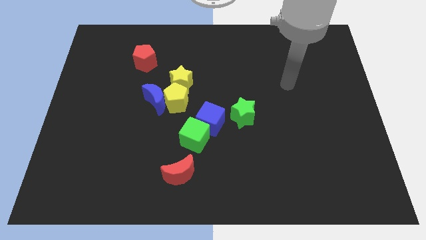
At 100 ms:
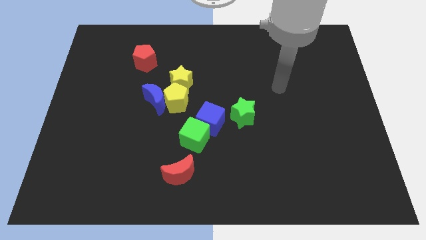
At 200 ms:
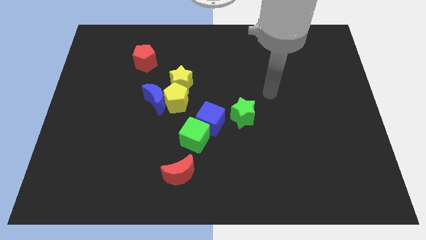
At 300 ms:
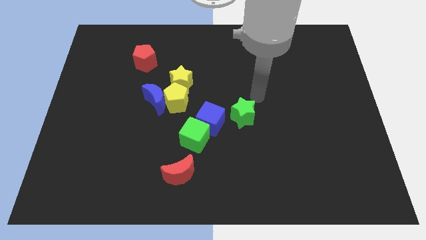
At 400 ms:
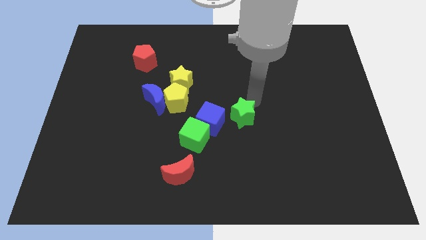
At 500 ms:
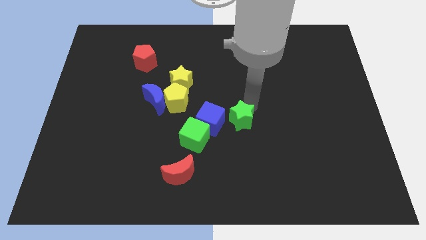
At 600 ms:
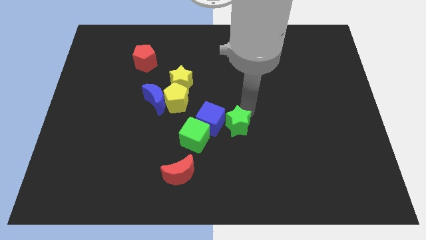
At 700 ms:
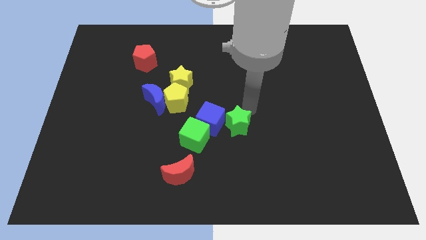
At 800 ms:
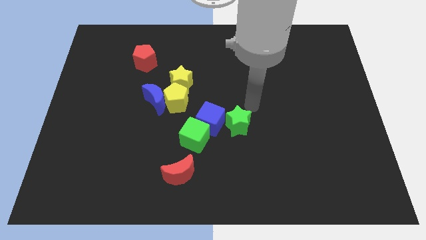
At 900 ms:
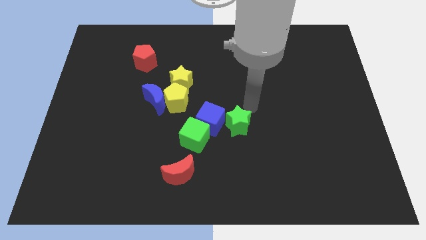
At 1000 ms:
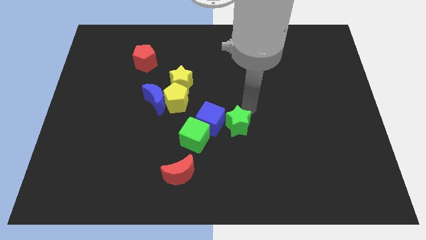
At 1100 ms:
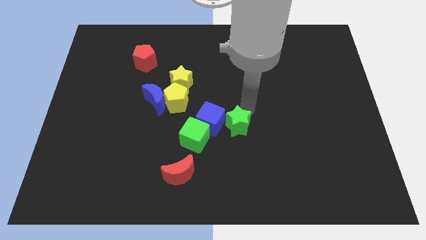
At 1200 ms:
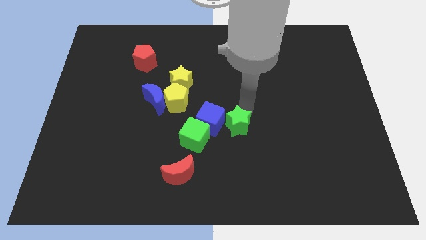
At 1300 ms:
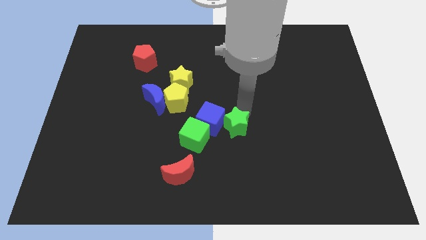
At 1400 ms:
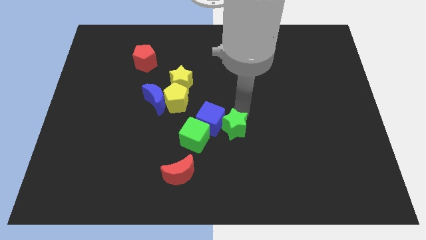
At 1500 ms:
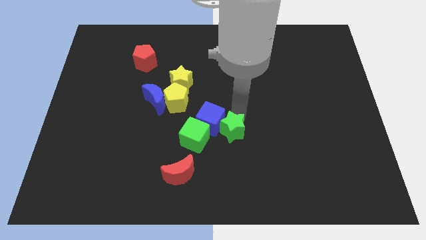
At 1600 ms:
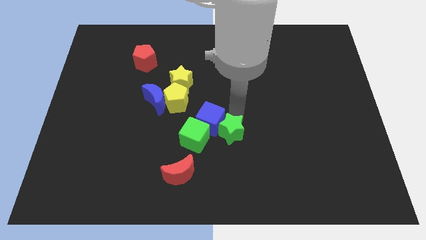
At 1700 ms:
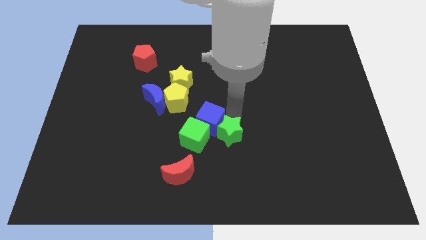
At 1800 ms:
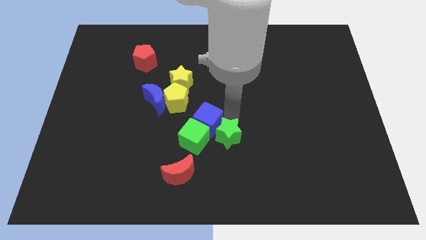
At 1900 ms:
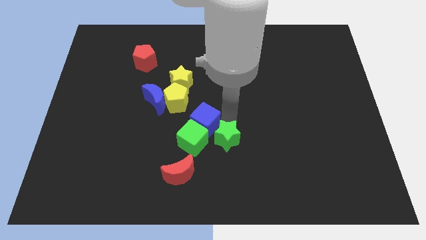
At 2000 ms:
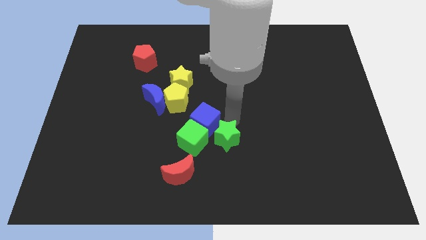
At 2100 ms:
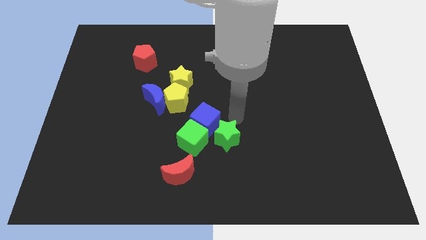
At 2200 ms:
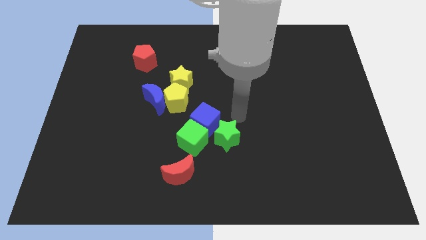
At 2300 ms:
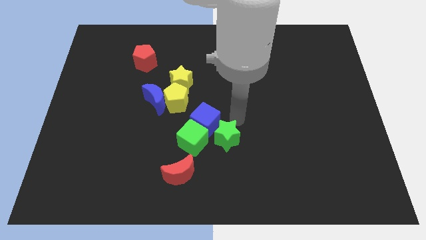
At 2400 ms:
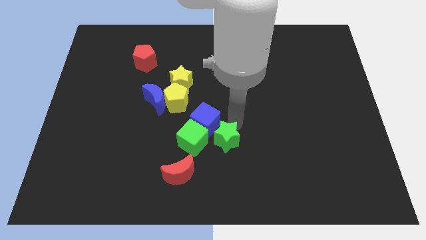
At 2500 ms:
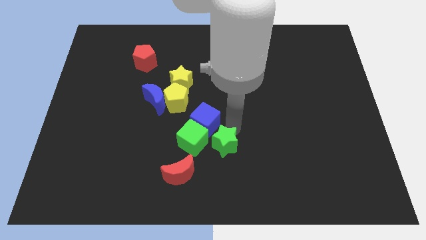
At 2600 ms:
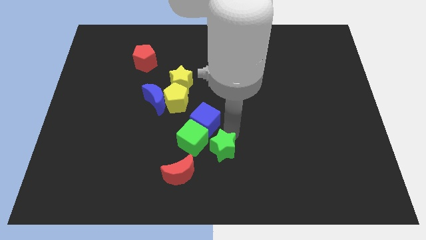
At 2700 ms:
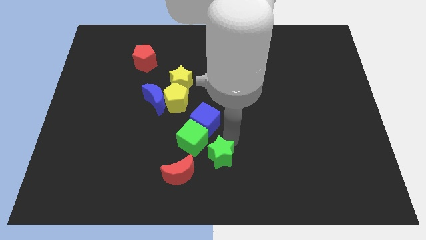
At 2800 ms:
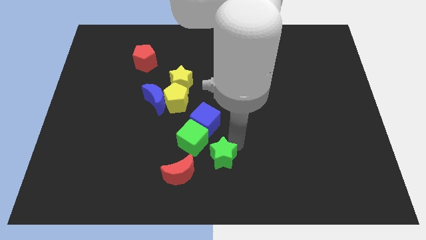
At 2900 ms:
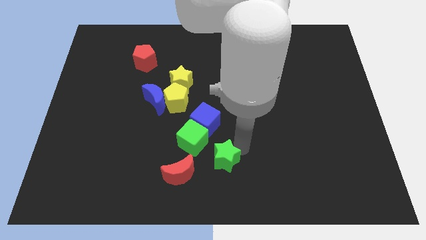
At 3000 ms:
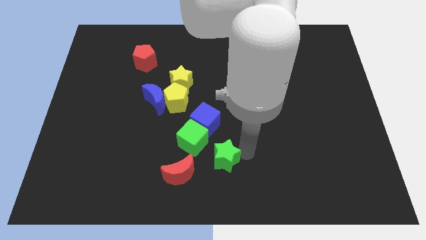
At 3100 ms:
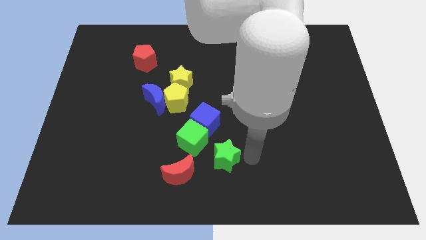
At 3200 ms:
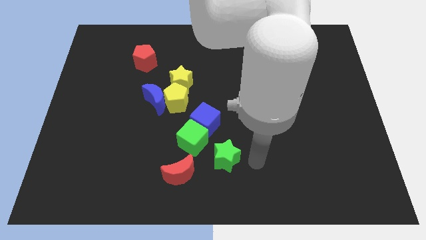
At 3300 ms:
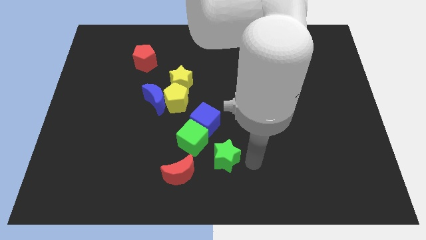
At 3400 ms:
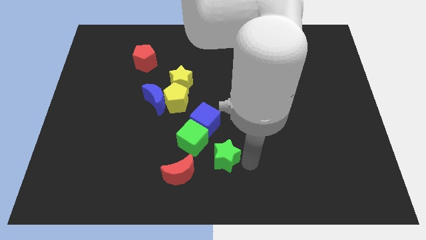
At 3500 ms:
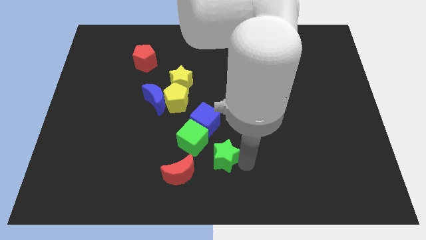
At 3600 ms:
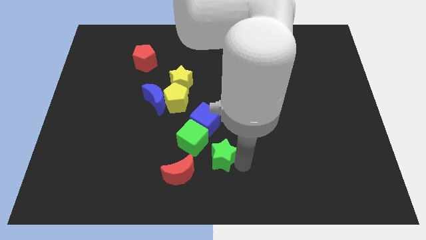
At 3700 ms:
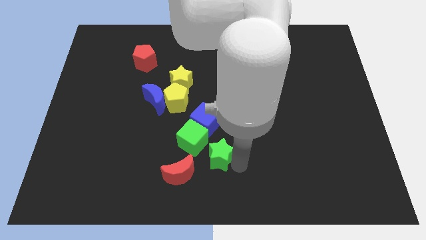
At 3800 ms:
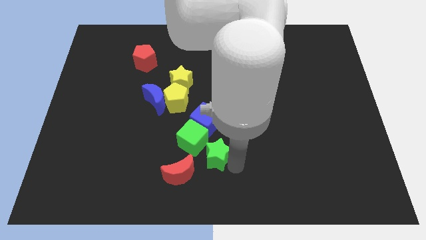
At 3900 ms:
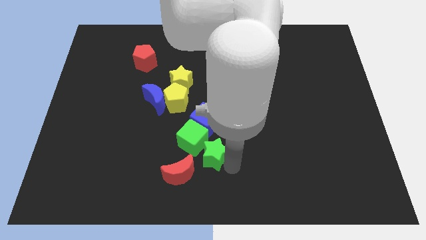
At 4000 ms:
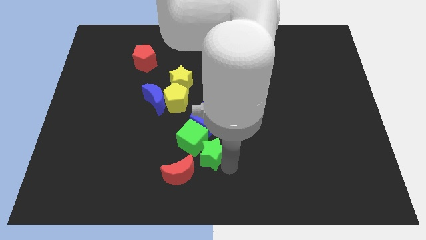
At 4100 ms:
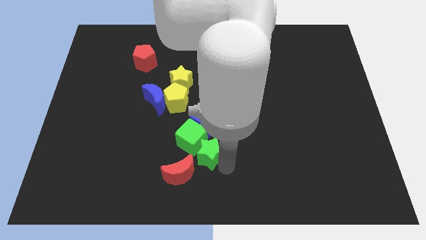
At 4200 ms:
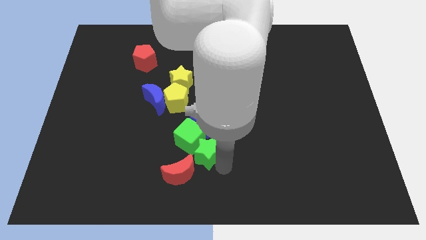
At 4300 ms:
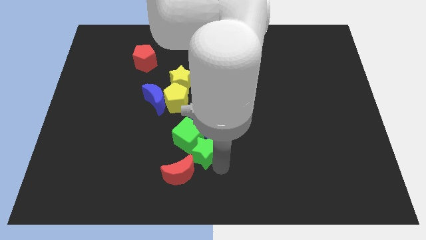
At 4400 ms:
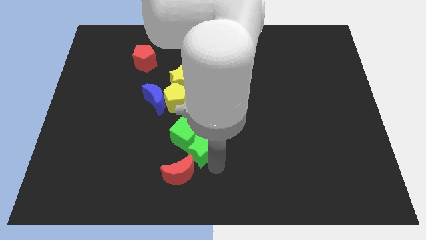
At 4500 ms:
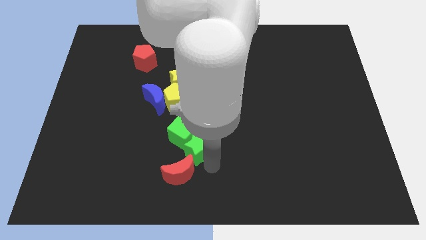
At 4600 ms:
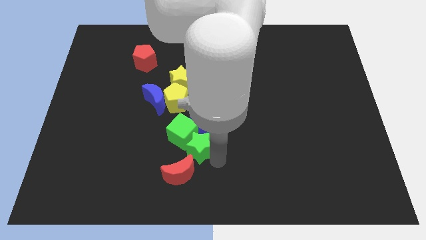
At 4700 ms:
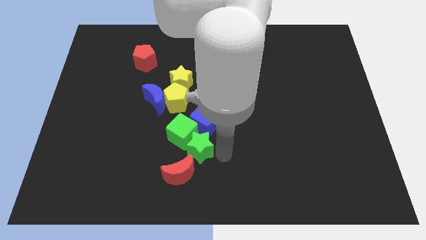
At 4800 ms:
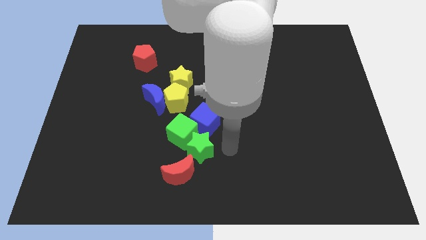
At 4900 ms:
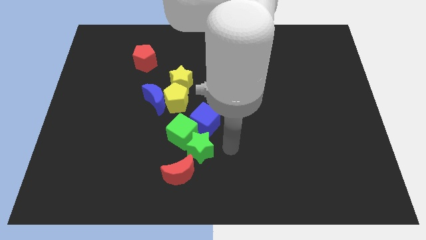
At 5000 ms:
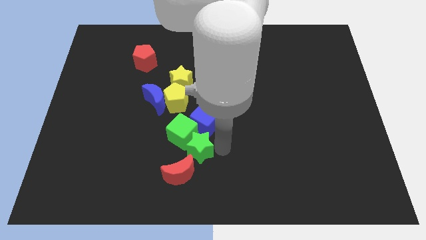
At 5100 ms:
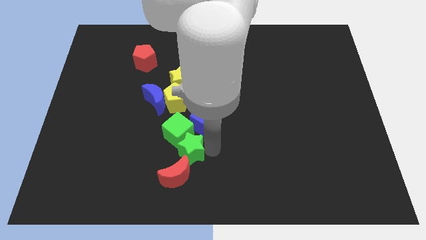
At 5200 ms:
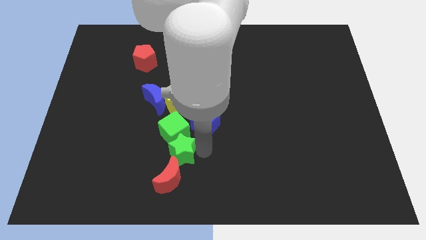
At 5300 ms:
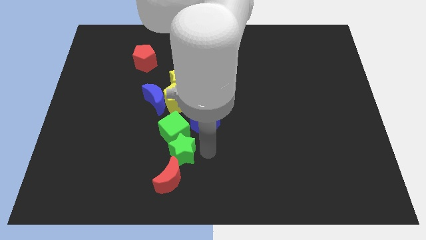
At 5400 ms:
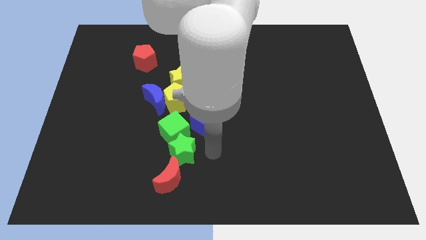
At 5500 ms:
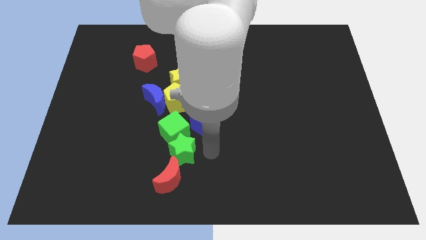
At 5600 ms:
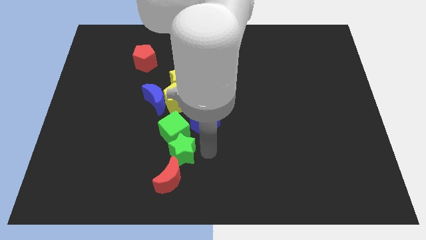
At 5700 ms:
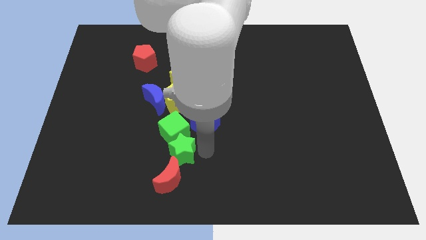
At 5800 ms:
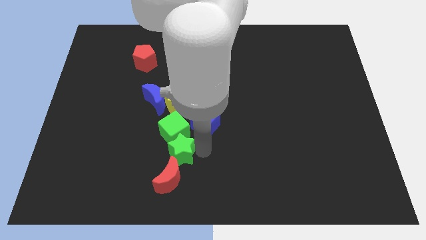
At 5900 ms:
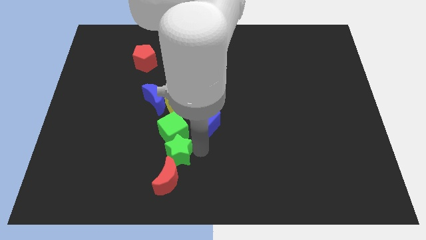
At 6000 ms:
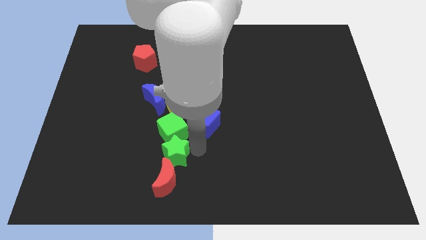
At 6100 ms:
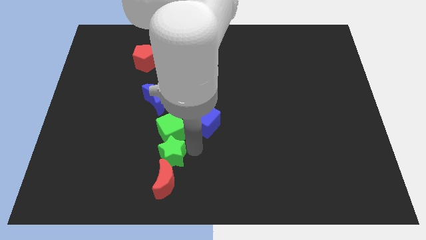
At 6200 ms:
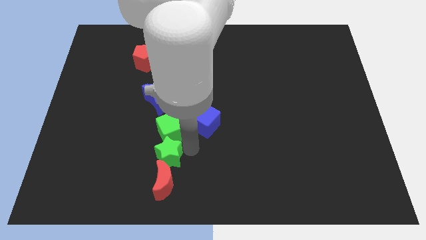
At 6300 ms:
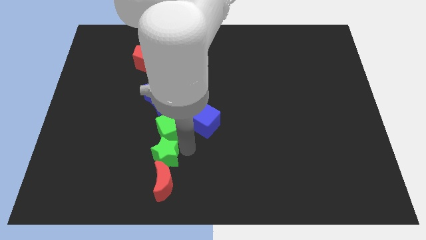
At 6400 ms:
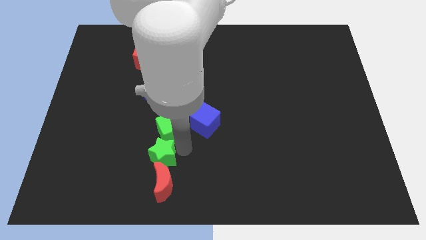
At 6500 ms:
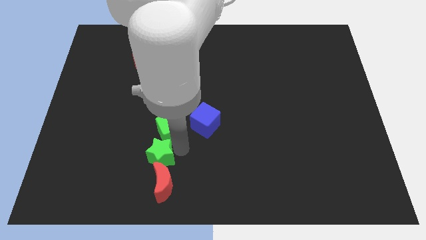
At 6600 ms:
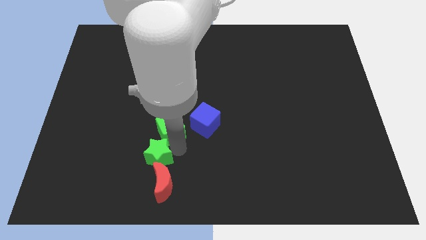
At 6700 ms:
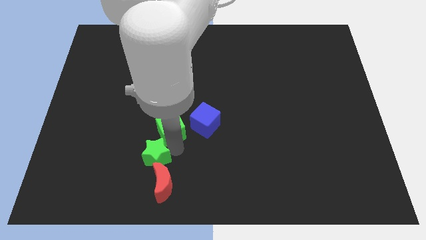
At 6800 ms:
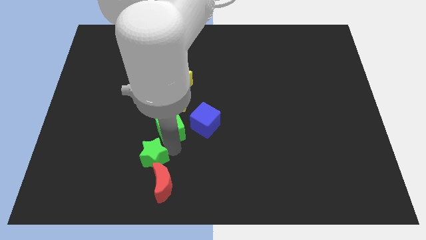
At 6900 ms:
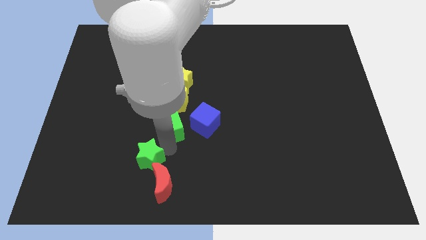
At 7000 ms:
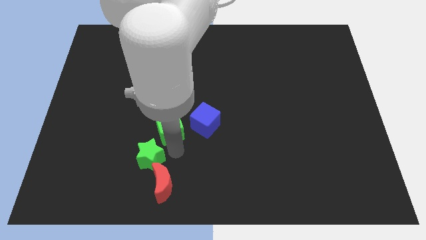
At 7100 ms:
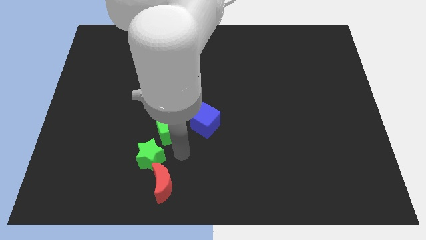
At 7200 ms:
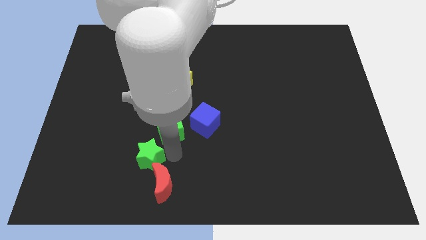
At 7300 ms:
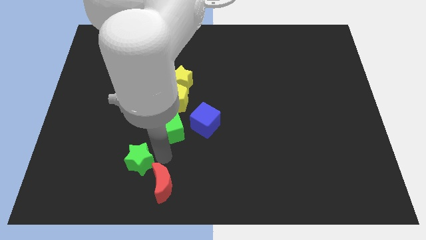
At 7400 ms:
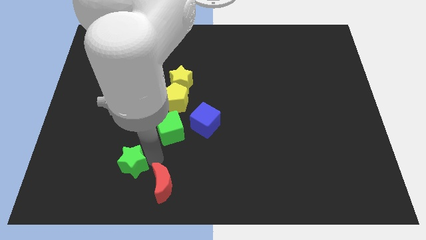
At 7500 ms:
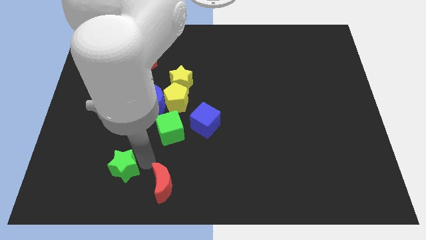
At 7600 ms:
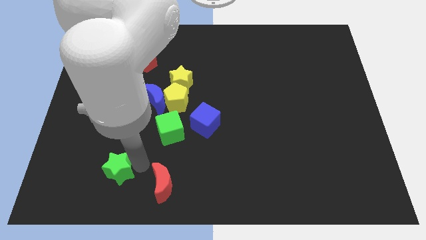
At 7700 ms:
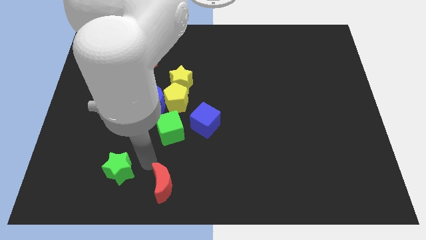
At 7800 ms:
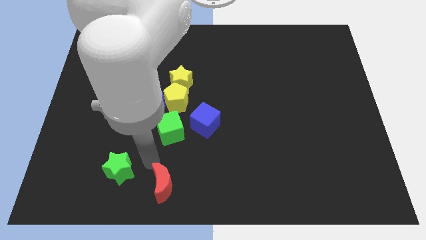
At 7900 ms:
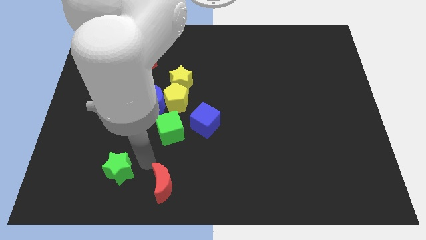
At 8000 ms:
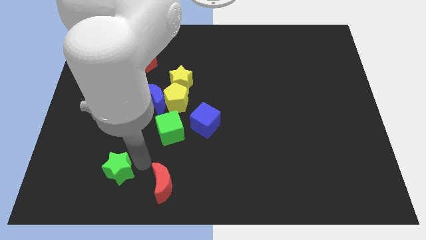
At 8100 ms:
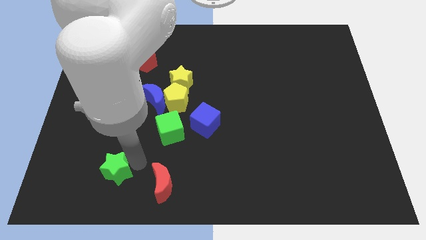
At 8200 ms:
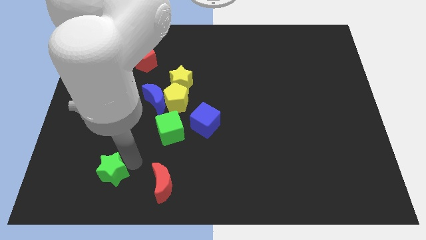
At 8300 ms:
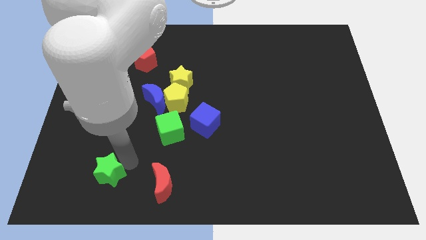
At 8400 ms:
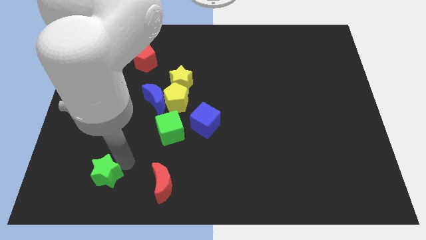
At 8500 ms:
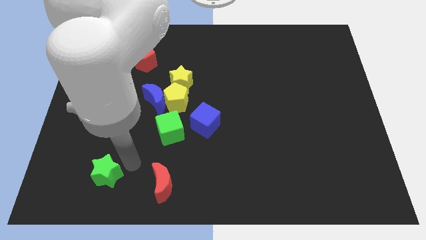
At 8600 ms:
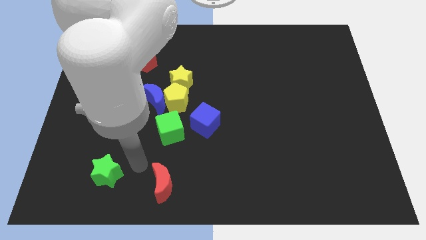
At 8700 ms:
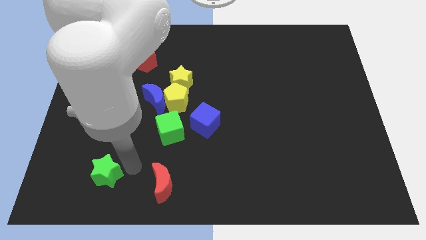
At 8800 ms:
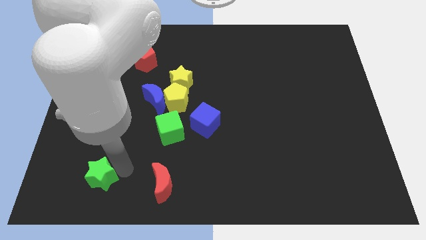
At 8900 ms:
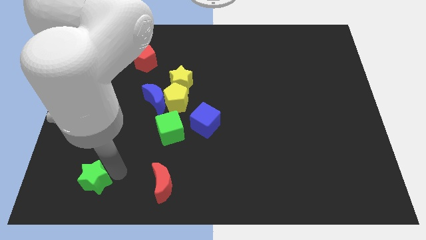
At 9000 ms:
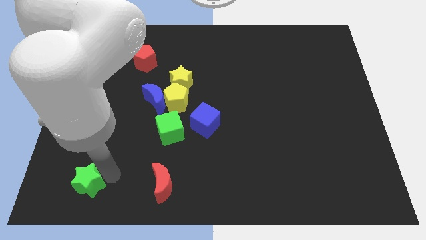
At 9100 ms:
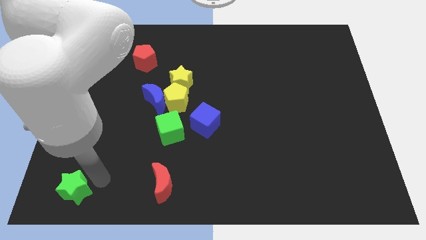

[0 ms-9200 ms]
move the green star to the bottom left of the board
